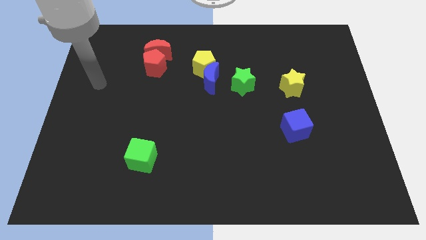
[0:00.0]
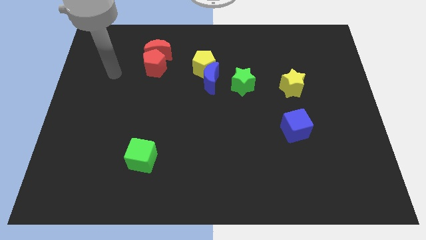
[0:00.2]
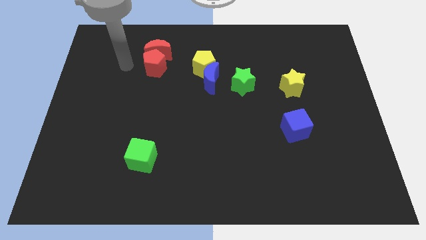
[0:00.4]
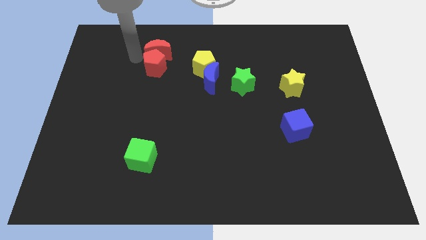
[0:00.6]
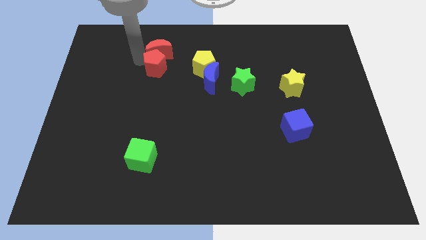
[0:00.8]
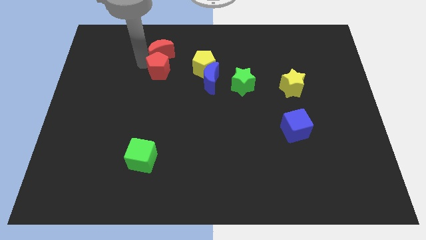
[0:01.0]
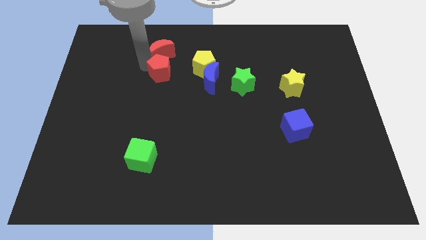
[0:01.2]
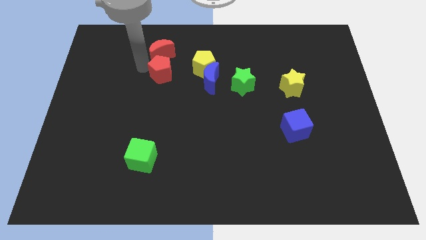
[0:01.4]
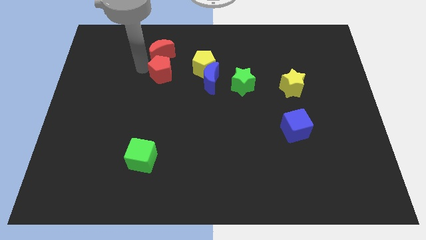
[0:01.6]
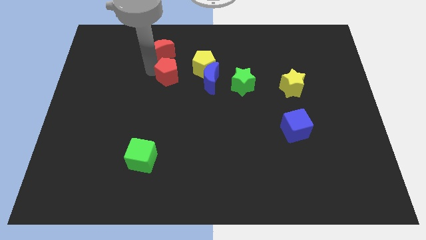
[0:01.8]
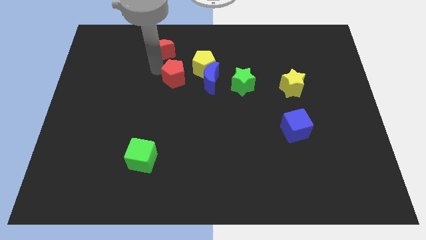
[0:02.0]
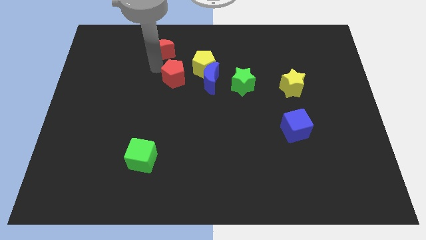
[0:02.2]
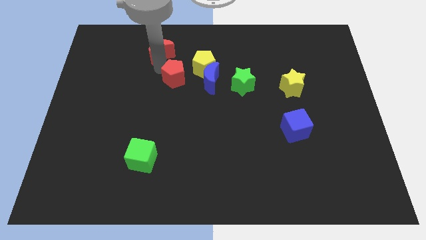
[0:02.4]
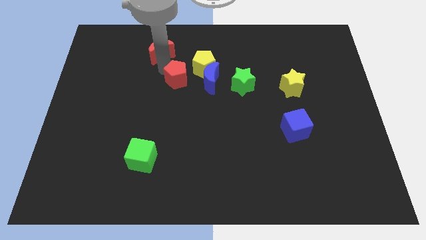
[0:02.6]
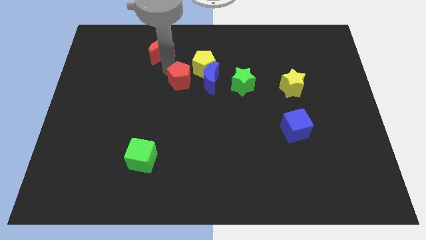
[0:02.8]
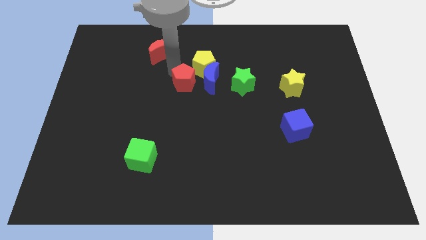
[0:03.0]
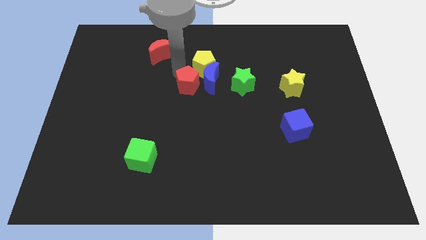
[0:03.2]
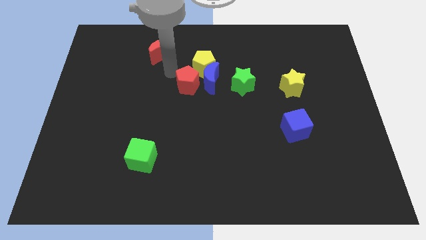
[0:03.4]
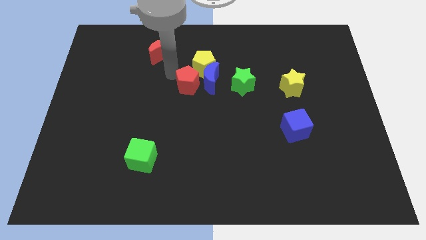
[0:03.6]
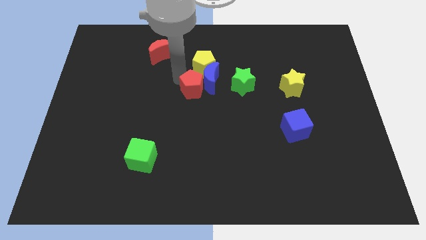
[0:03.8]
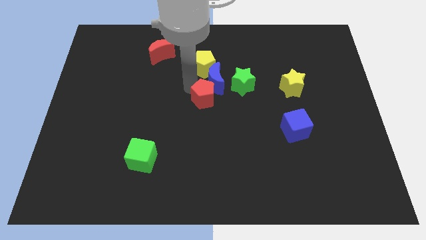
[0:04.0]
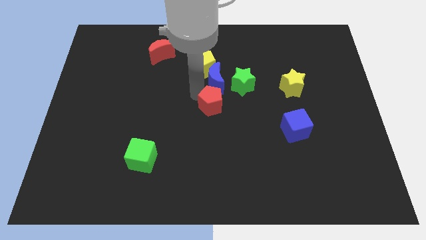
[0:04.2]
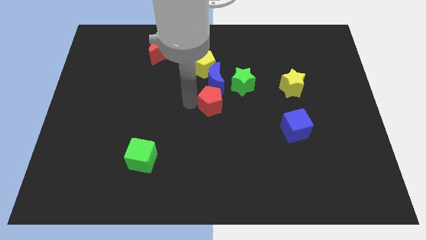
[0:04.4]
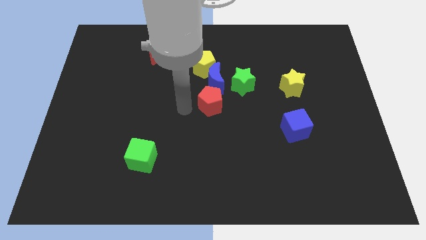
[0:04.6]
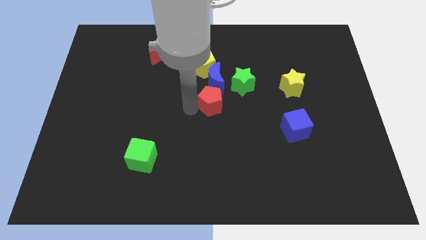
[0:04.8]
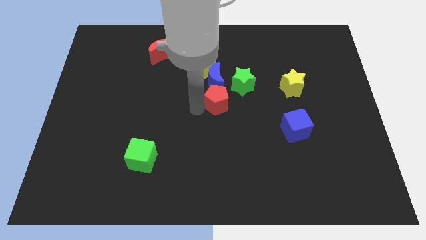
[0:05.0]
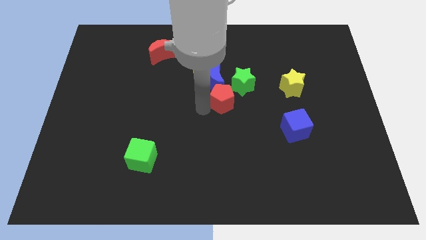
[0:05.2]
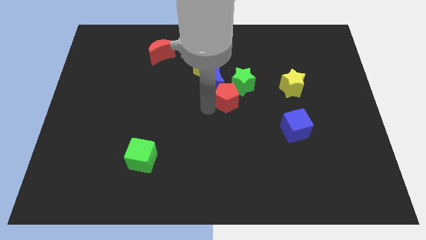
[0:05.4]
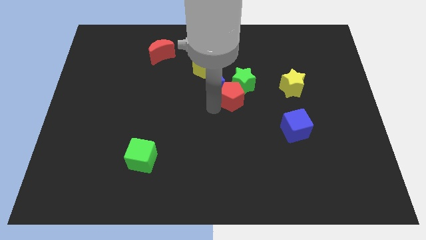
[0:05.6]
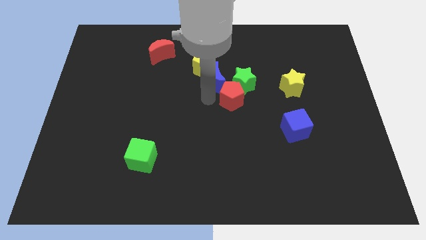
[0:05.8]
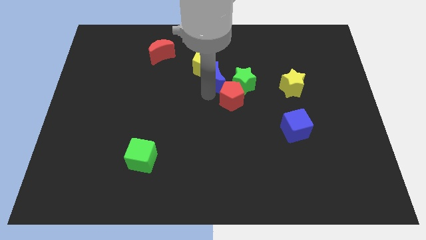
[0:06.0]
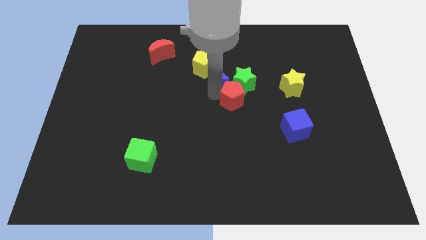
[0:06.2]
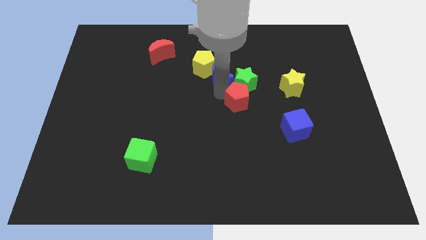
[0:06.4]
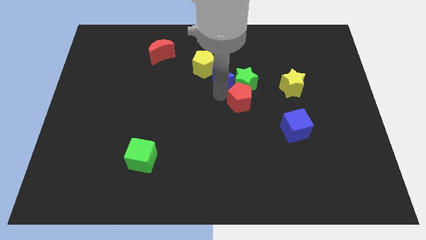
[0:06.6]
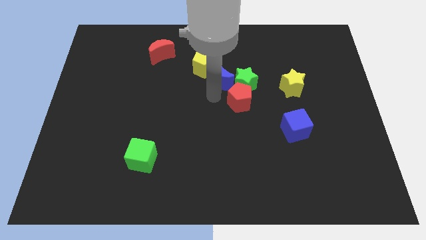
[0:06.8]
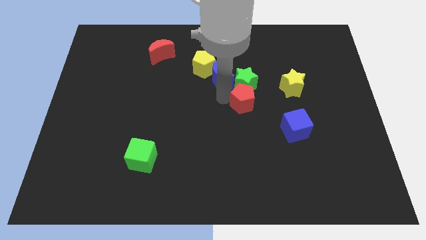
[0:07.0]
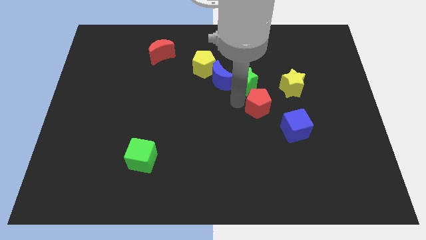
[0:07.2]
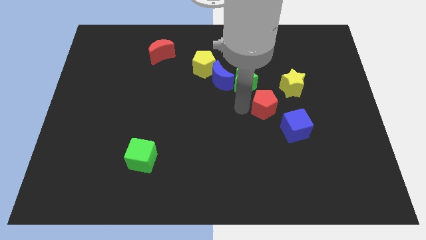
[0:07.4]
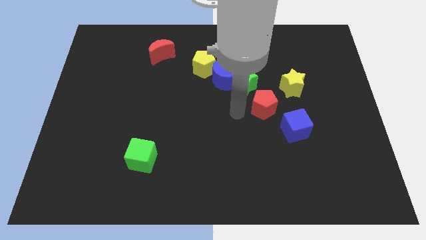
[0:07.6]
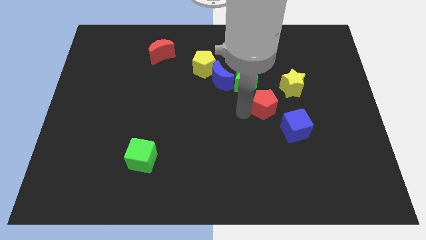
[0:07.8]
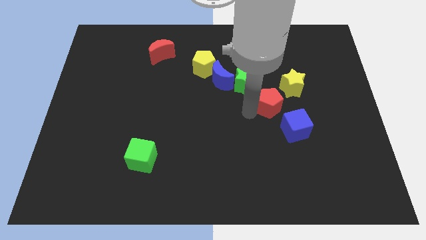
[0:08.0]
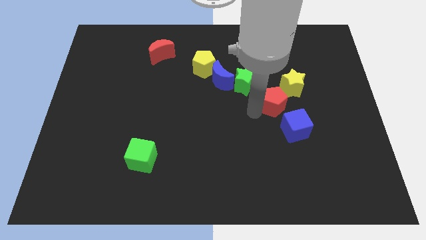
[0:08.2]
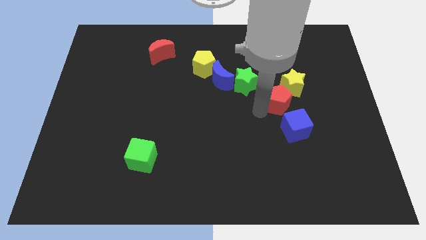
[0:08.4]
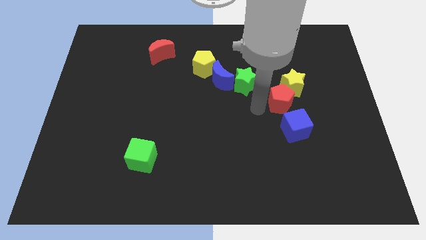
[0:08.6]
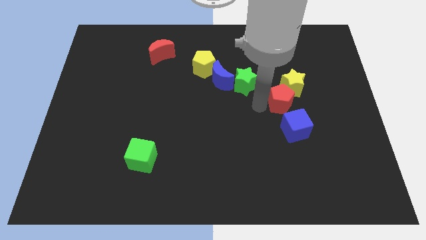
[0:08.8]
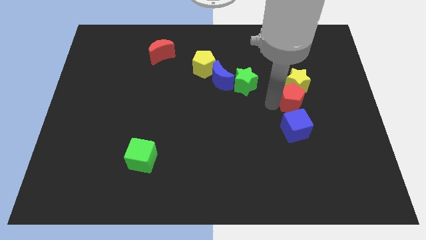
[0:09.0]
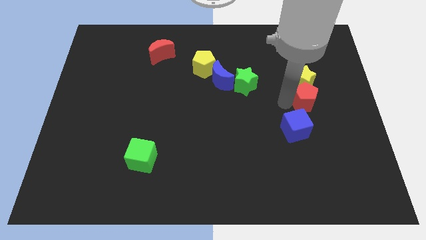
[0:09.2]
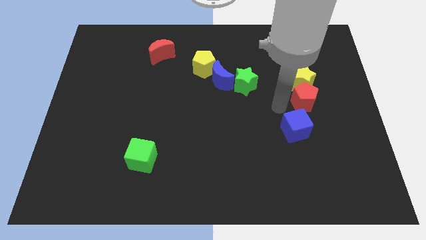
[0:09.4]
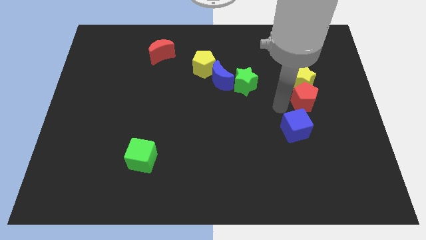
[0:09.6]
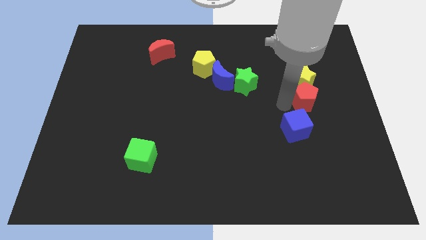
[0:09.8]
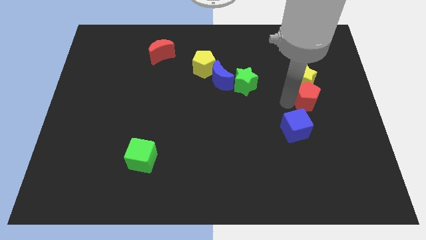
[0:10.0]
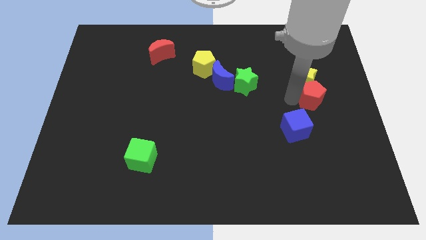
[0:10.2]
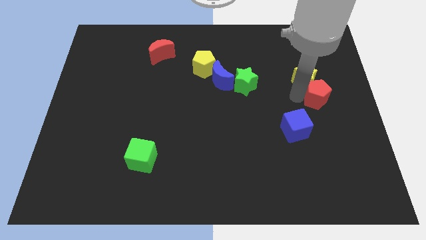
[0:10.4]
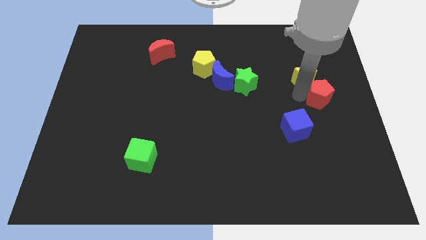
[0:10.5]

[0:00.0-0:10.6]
put the red pentagon to the right side of the board
